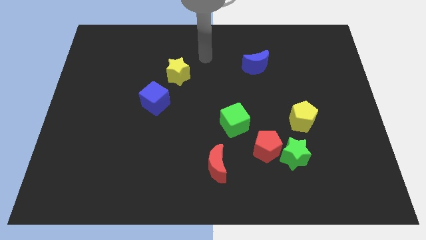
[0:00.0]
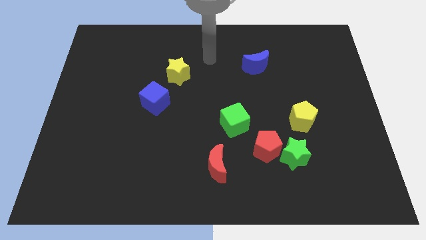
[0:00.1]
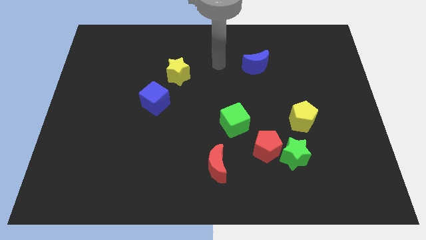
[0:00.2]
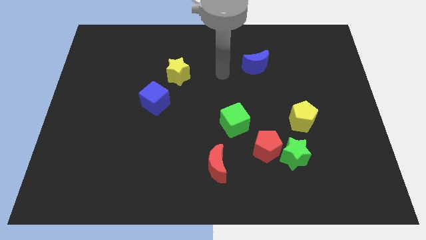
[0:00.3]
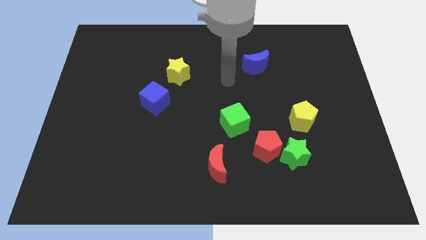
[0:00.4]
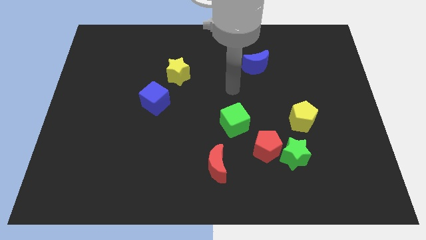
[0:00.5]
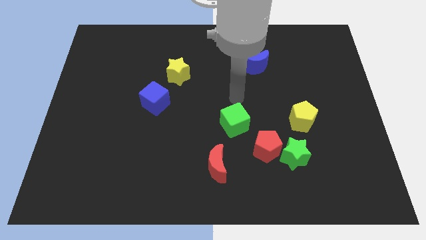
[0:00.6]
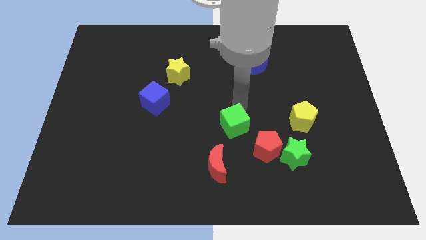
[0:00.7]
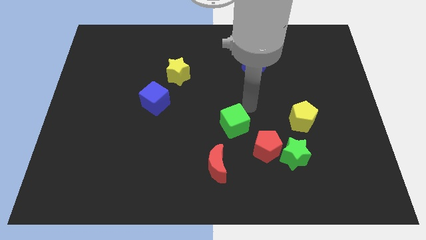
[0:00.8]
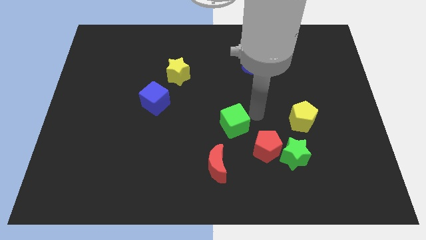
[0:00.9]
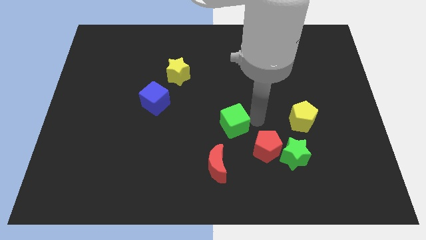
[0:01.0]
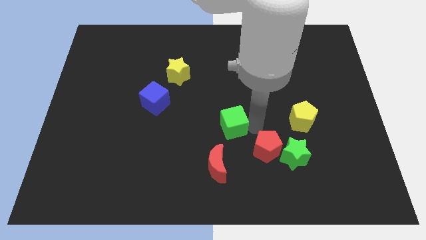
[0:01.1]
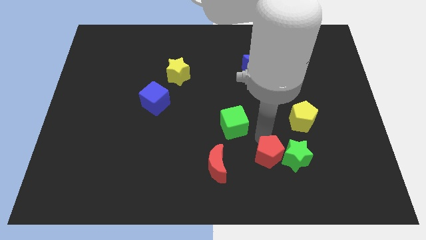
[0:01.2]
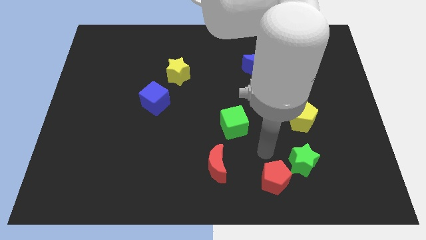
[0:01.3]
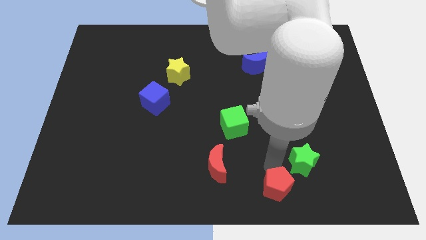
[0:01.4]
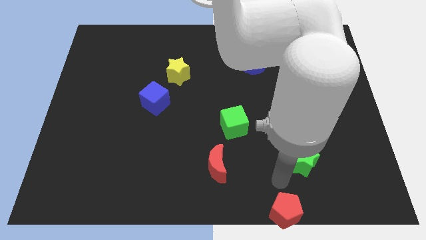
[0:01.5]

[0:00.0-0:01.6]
separate the green star from the red pentagon

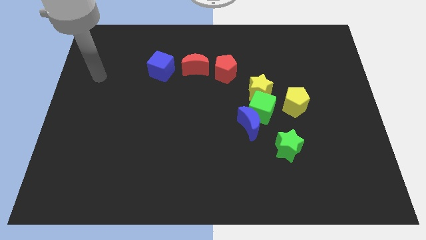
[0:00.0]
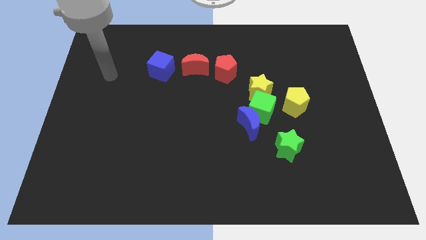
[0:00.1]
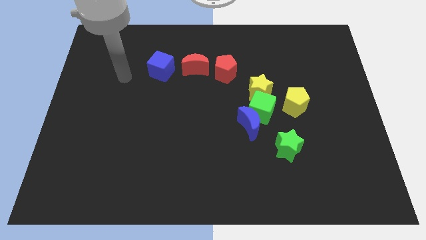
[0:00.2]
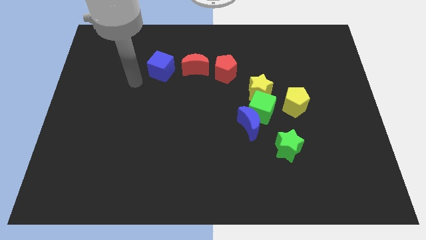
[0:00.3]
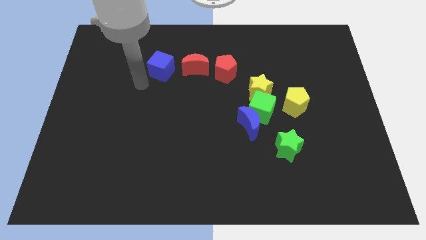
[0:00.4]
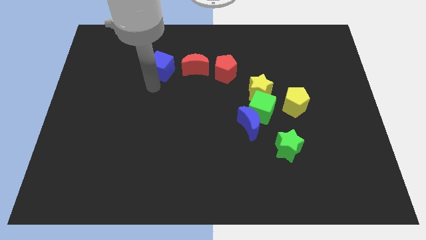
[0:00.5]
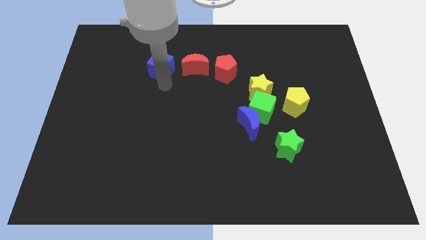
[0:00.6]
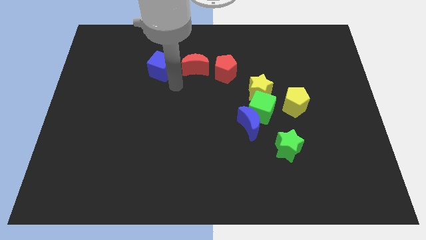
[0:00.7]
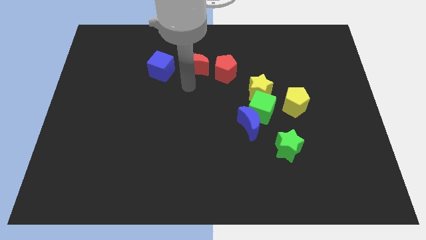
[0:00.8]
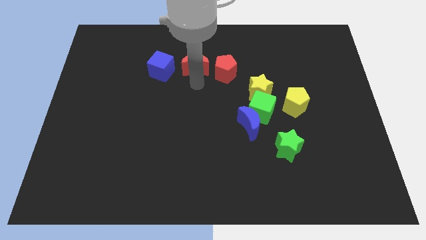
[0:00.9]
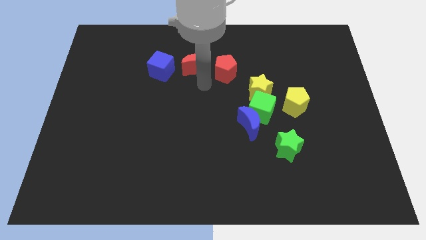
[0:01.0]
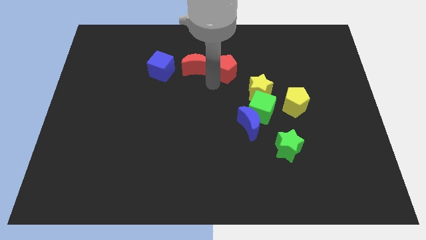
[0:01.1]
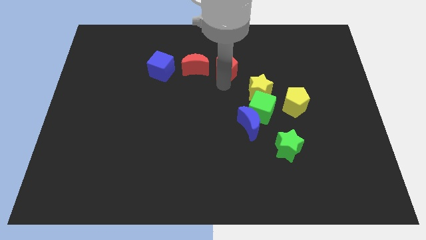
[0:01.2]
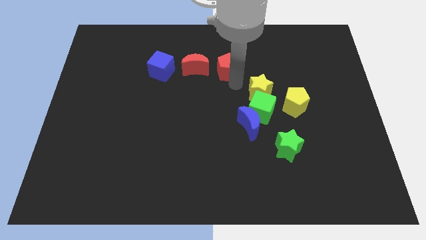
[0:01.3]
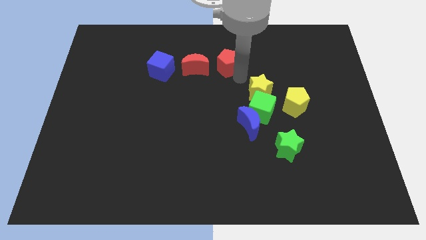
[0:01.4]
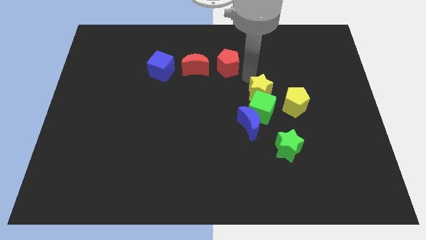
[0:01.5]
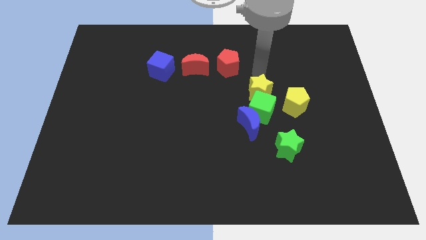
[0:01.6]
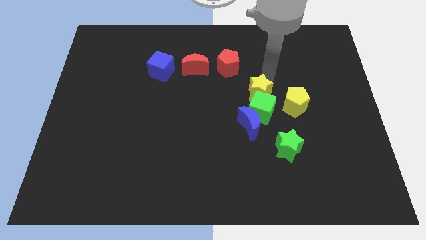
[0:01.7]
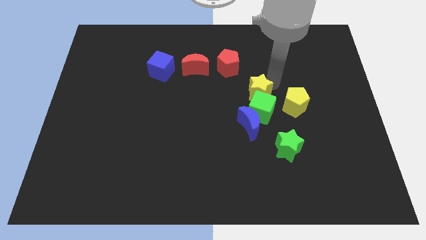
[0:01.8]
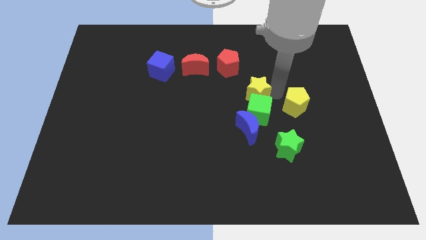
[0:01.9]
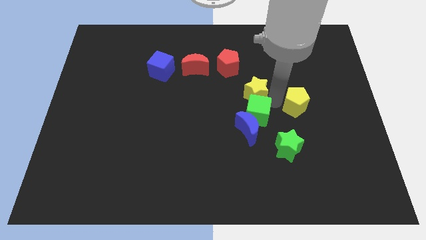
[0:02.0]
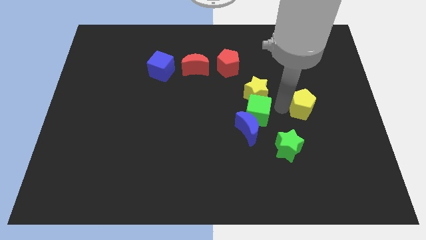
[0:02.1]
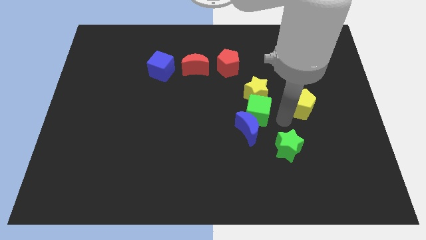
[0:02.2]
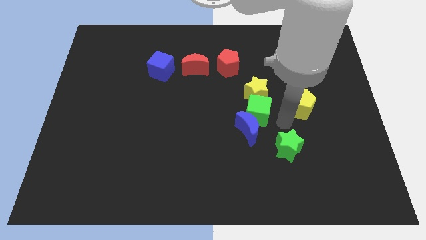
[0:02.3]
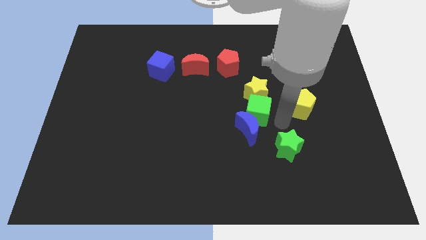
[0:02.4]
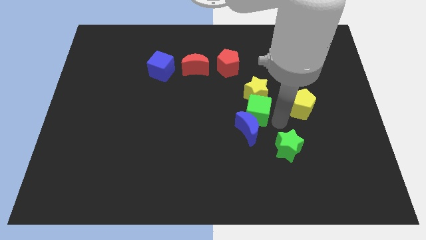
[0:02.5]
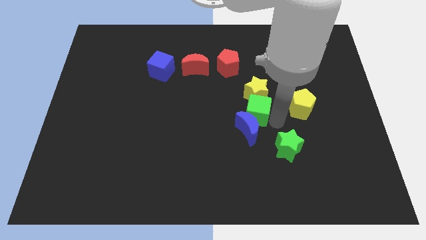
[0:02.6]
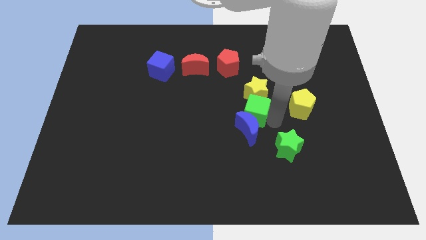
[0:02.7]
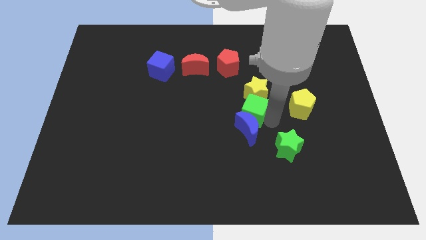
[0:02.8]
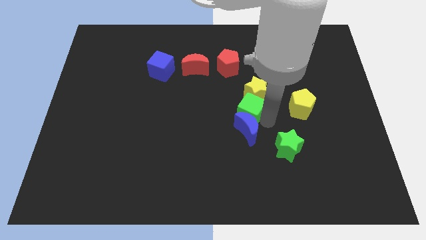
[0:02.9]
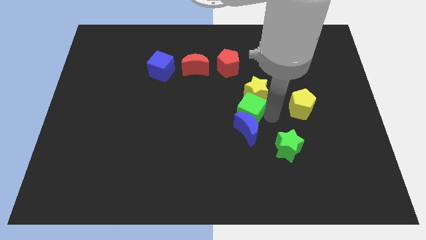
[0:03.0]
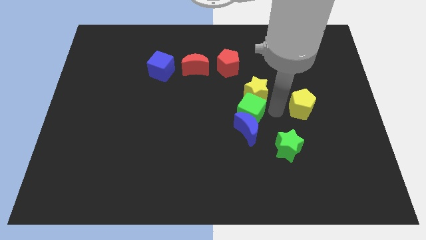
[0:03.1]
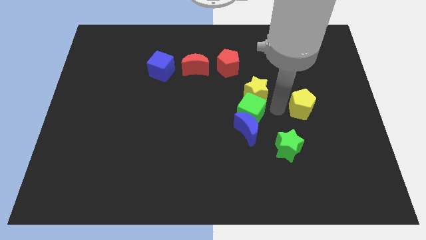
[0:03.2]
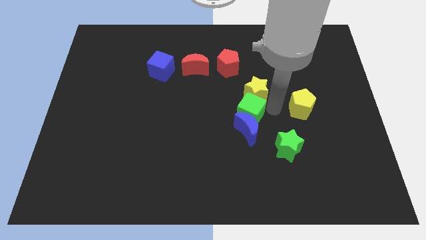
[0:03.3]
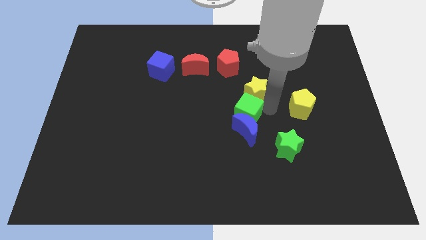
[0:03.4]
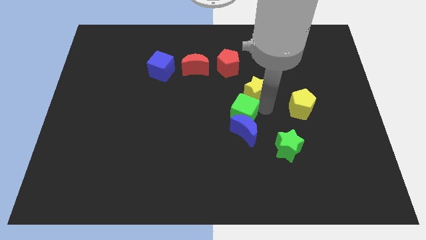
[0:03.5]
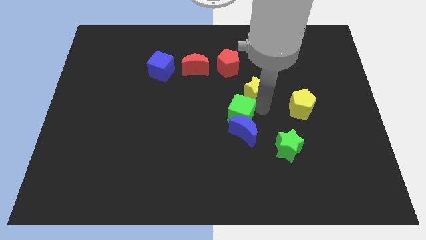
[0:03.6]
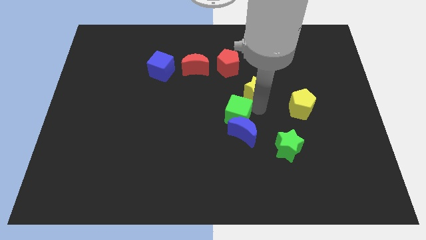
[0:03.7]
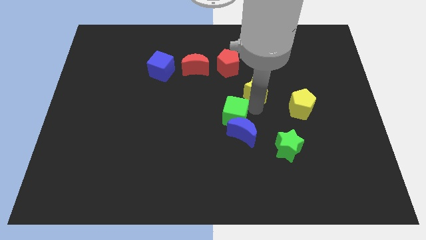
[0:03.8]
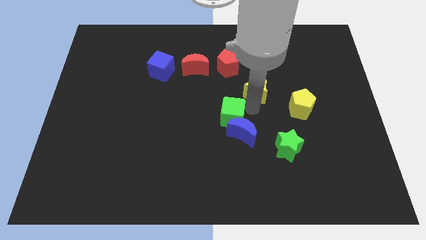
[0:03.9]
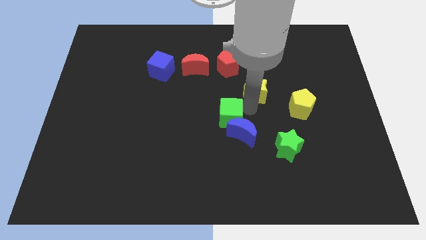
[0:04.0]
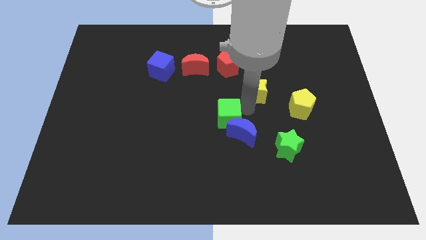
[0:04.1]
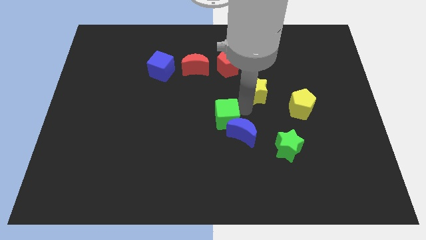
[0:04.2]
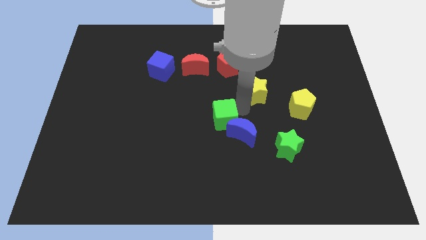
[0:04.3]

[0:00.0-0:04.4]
move the green cube away from the group

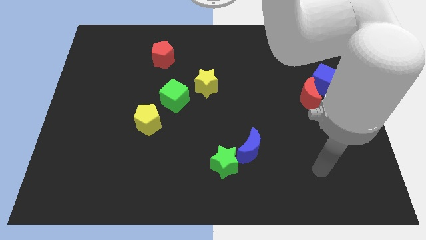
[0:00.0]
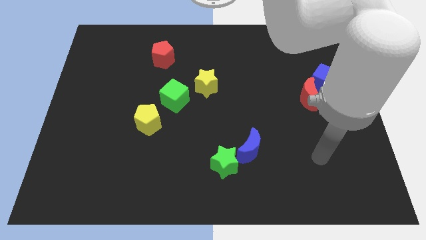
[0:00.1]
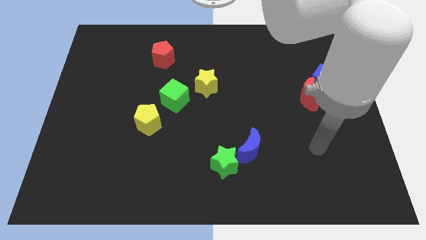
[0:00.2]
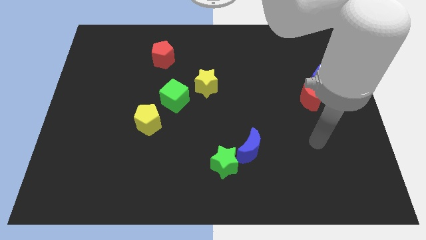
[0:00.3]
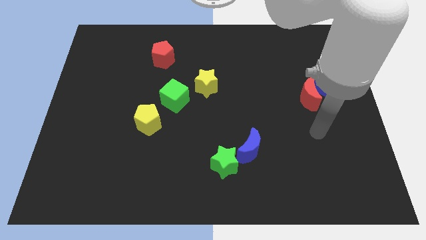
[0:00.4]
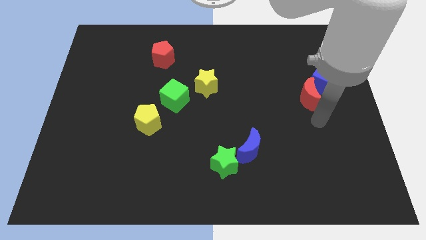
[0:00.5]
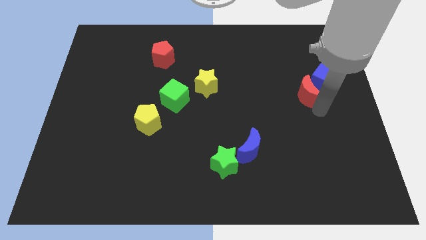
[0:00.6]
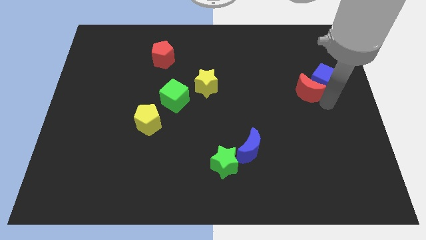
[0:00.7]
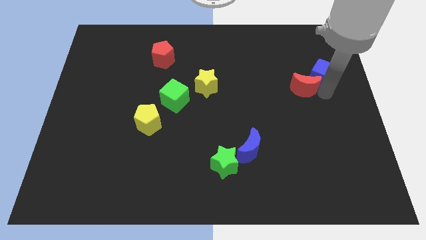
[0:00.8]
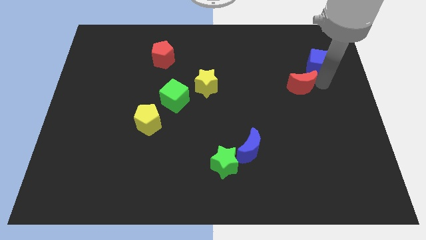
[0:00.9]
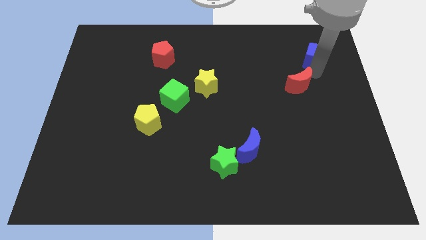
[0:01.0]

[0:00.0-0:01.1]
move the red moon away from the blue cube

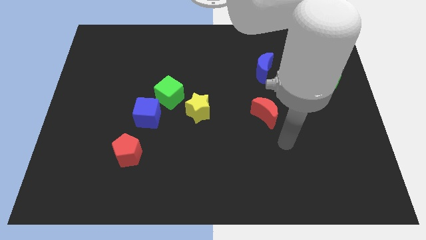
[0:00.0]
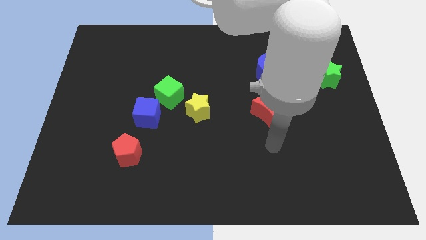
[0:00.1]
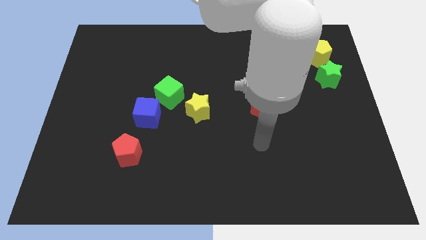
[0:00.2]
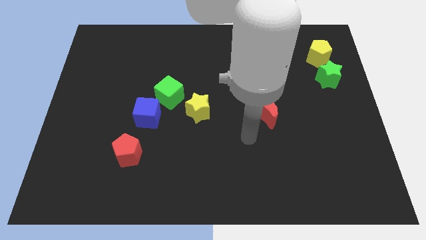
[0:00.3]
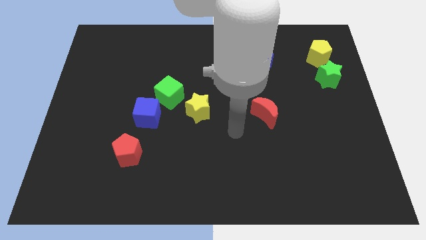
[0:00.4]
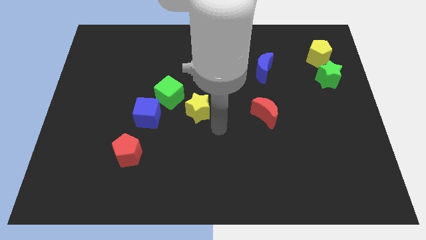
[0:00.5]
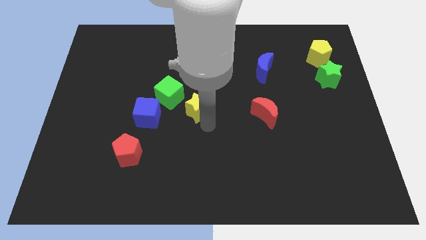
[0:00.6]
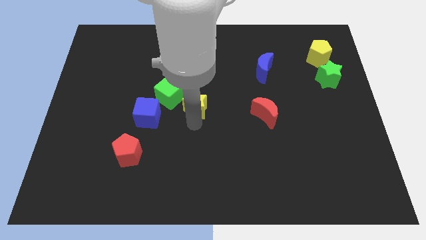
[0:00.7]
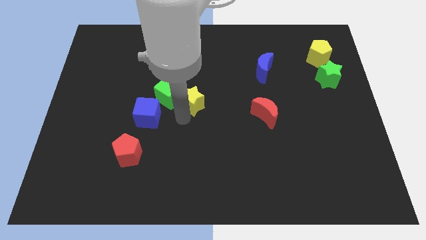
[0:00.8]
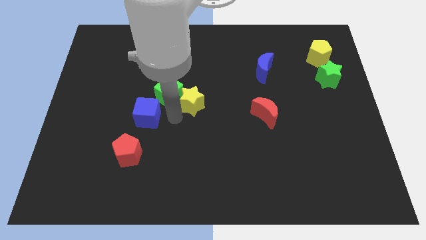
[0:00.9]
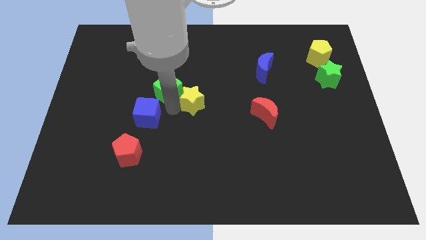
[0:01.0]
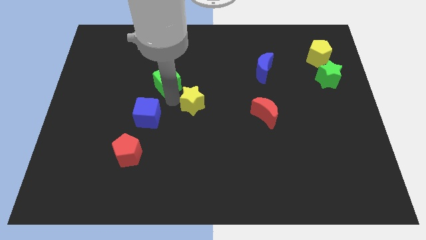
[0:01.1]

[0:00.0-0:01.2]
separate the blue cube from the green cube

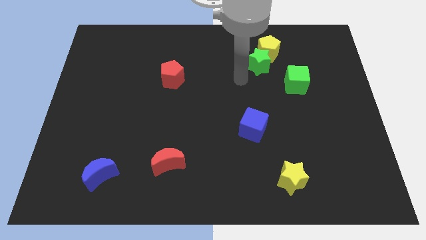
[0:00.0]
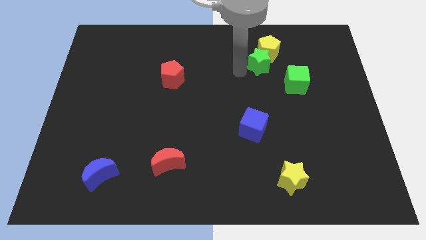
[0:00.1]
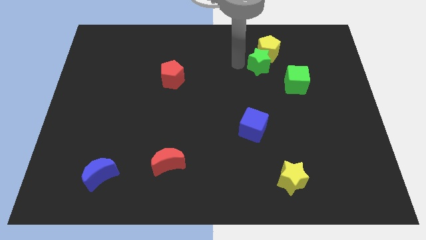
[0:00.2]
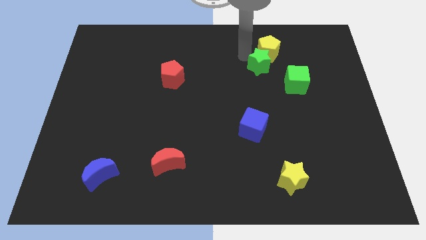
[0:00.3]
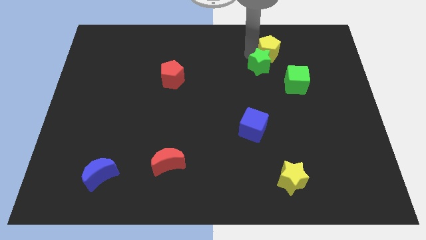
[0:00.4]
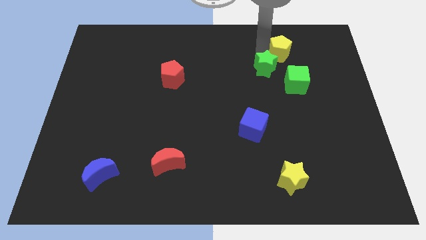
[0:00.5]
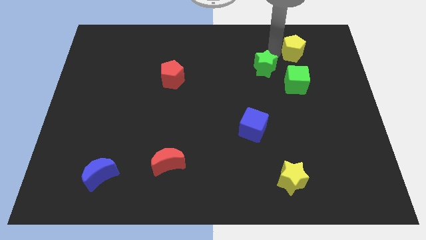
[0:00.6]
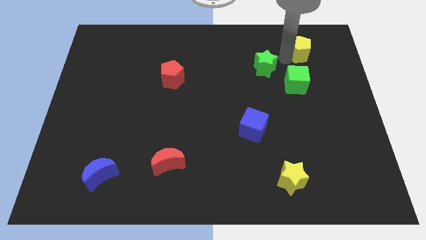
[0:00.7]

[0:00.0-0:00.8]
move the green star away from the yellow pentagon

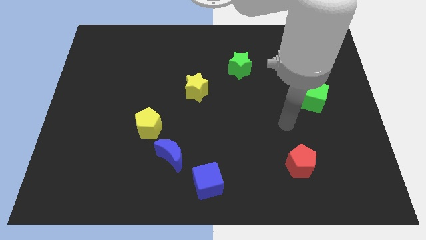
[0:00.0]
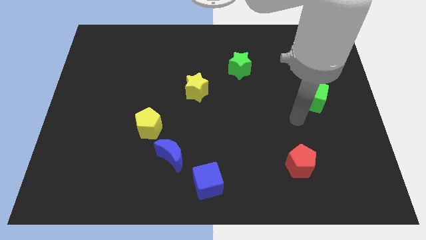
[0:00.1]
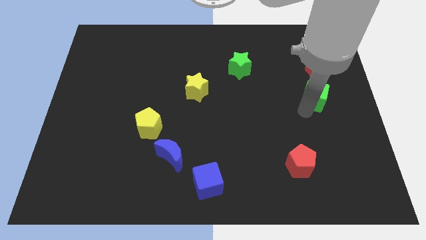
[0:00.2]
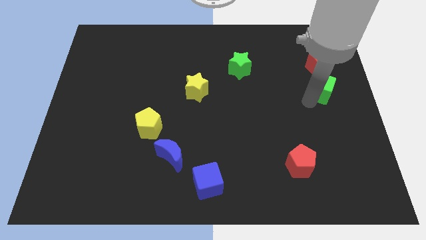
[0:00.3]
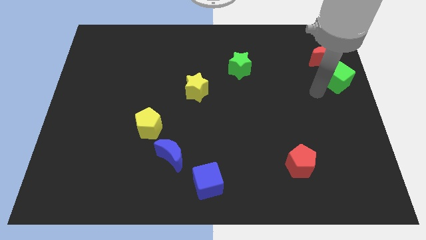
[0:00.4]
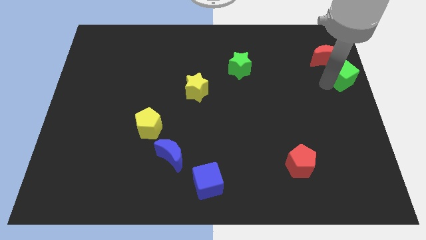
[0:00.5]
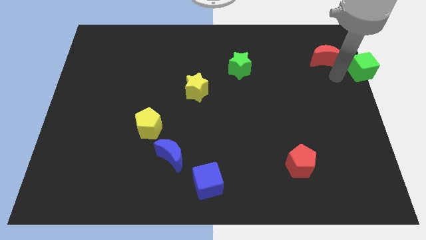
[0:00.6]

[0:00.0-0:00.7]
move the red moon away from the green cube
